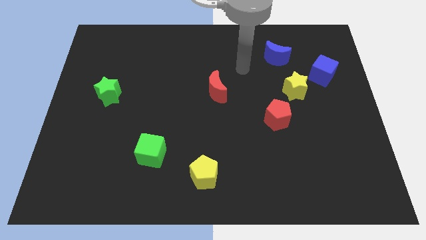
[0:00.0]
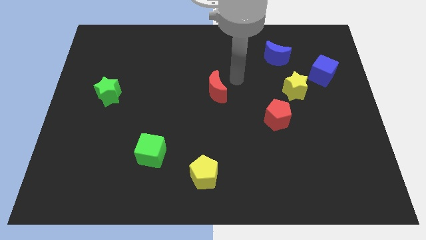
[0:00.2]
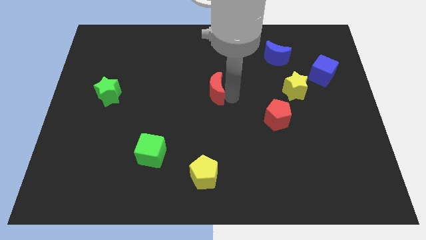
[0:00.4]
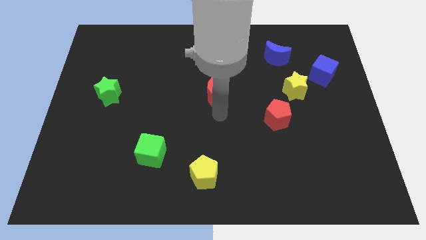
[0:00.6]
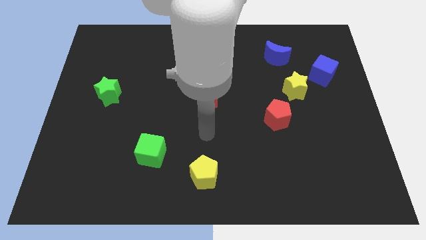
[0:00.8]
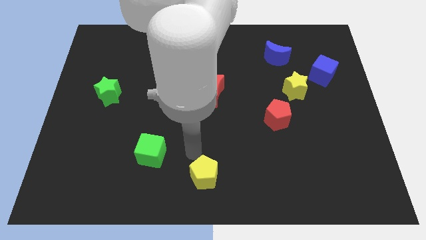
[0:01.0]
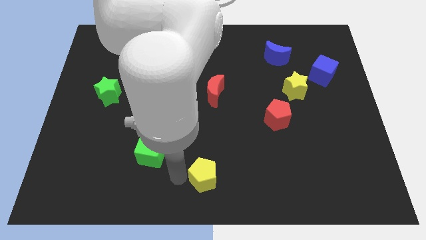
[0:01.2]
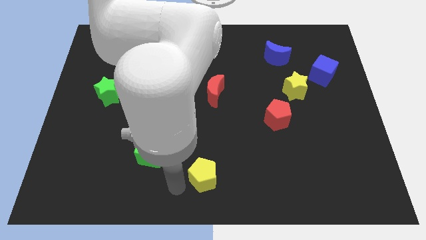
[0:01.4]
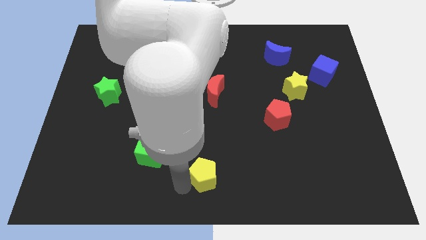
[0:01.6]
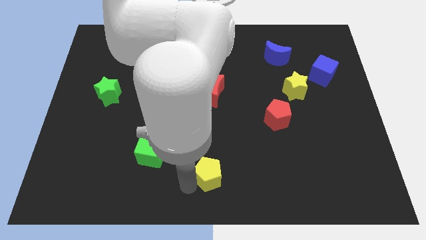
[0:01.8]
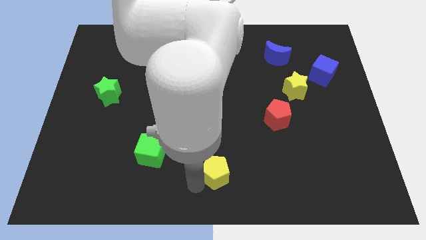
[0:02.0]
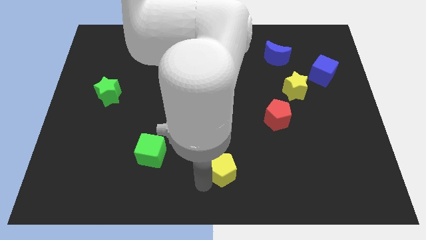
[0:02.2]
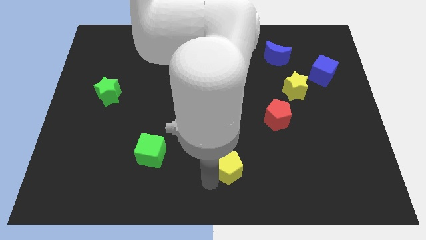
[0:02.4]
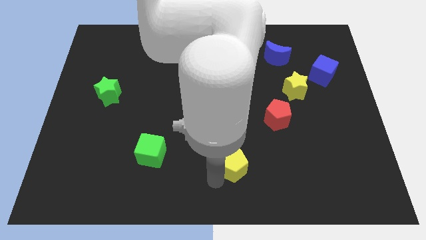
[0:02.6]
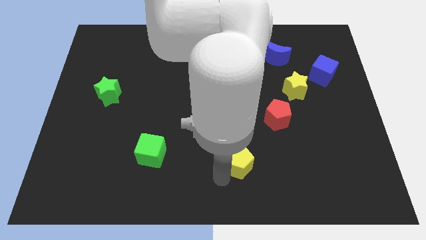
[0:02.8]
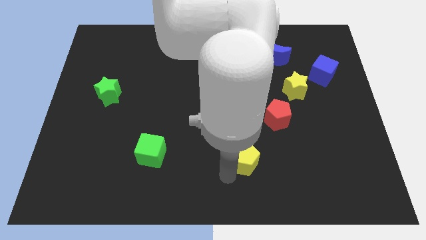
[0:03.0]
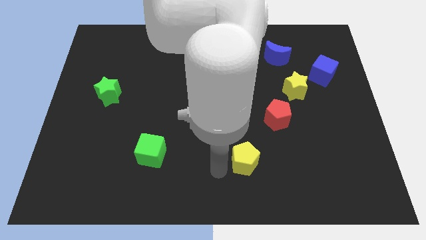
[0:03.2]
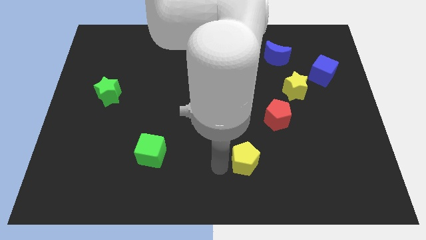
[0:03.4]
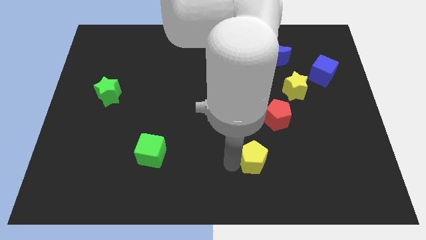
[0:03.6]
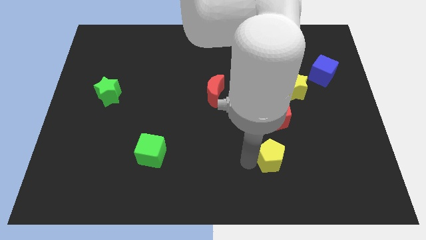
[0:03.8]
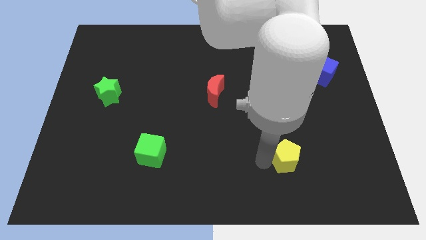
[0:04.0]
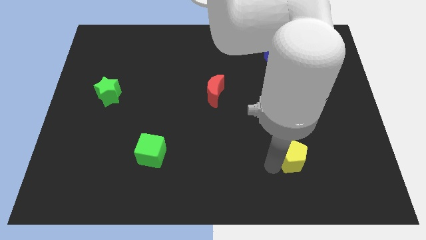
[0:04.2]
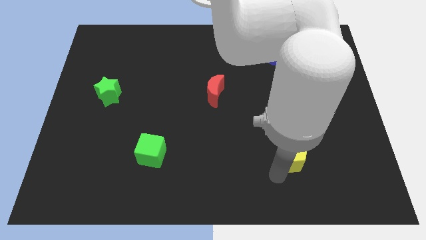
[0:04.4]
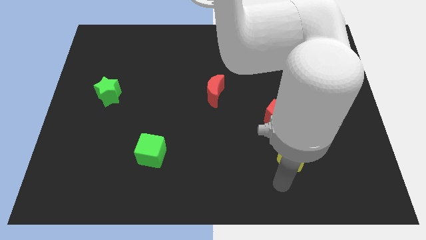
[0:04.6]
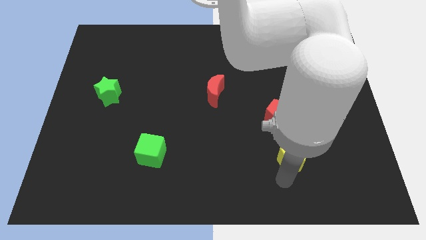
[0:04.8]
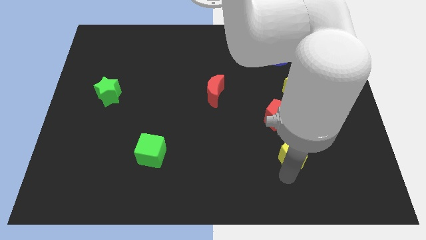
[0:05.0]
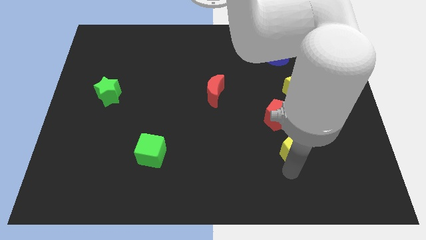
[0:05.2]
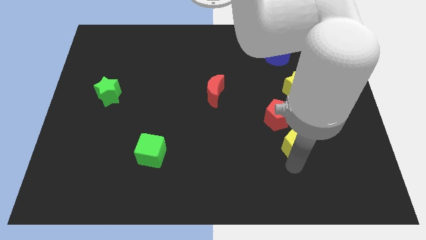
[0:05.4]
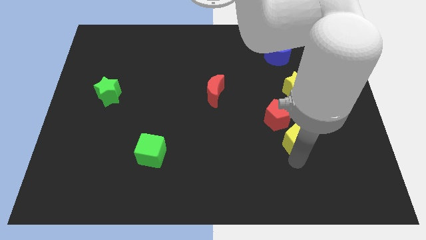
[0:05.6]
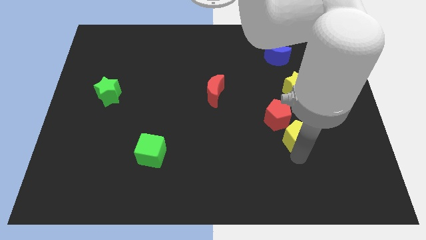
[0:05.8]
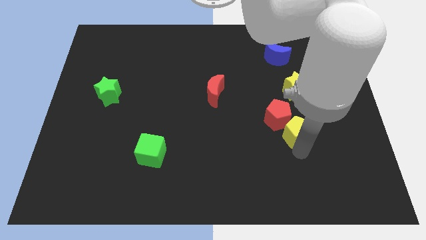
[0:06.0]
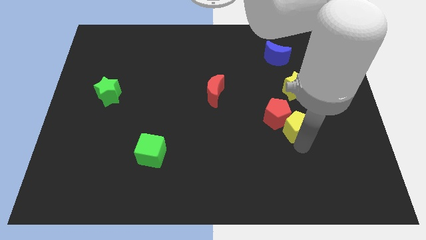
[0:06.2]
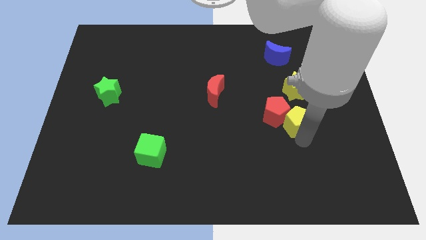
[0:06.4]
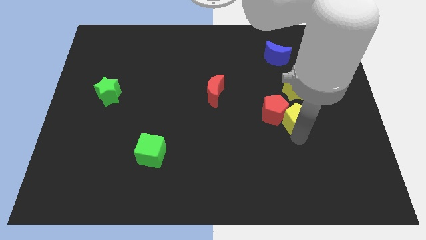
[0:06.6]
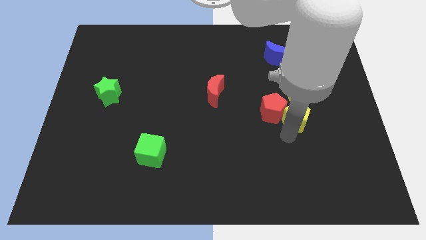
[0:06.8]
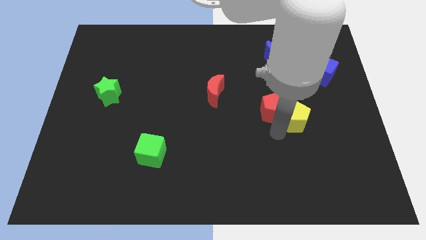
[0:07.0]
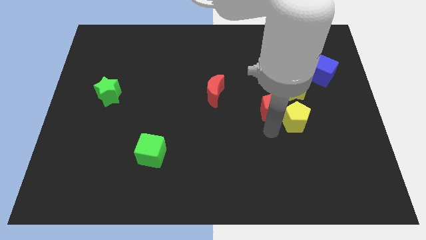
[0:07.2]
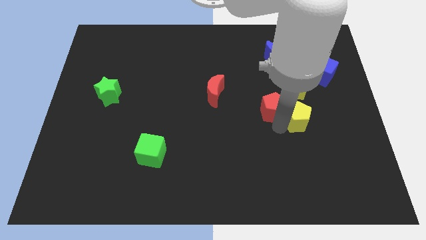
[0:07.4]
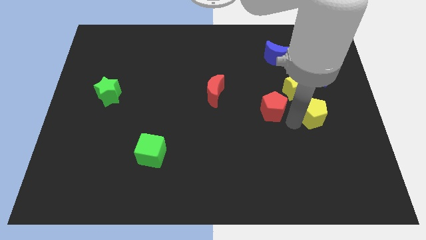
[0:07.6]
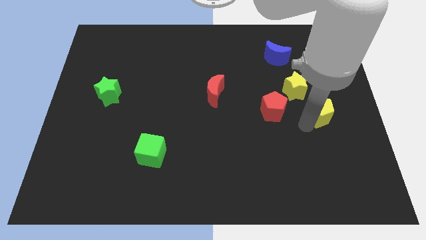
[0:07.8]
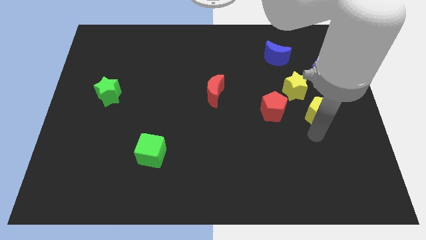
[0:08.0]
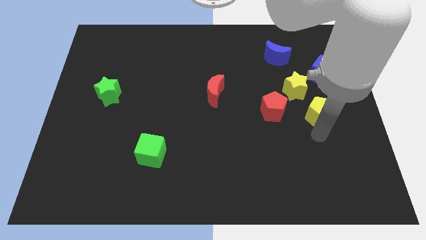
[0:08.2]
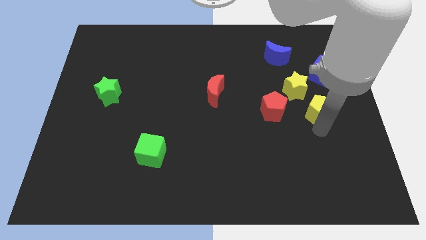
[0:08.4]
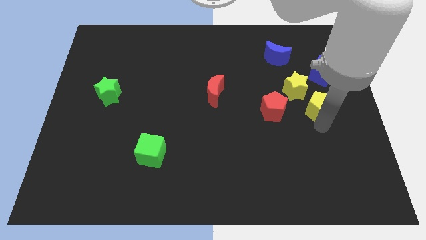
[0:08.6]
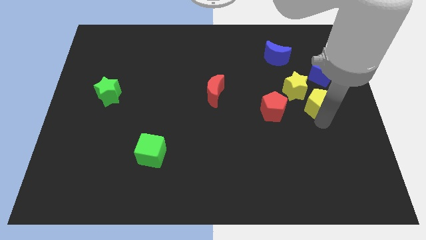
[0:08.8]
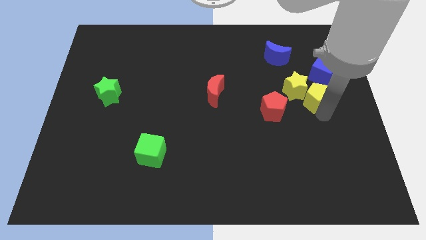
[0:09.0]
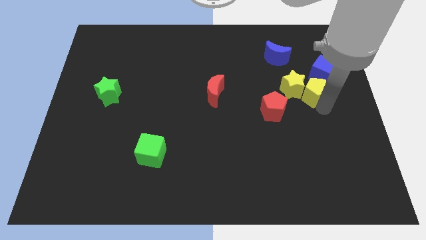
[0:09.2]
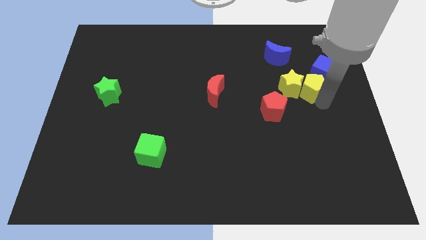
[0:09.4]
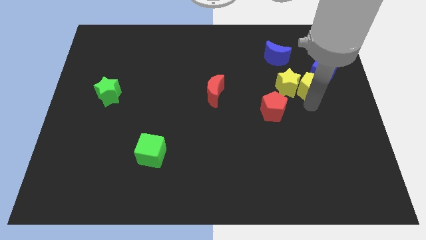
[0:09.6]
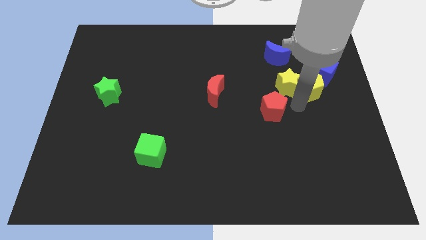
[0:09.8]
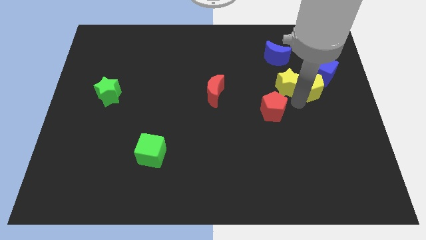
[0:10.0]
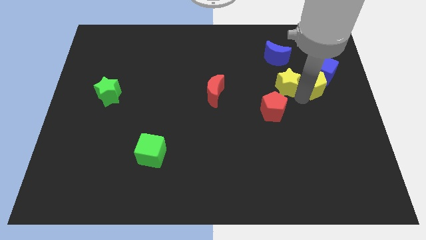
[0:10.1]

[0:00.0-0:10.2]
move the yellow pentagon towards the blue cube

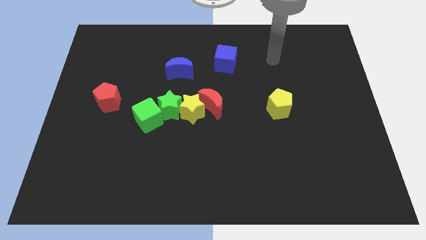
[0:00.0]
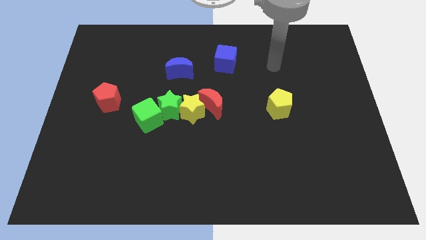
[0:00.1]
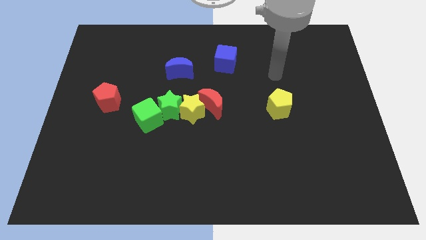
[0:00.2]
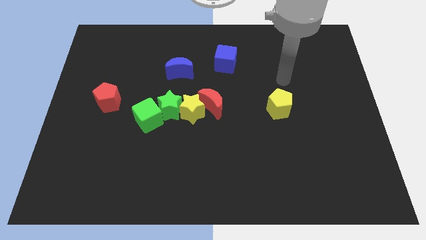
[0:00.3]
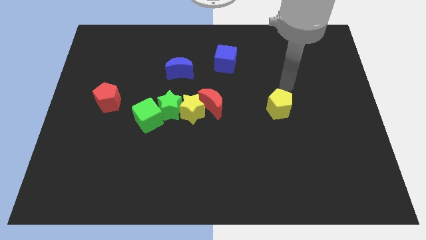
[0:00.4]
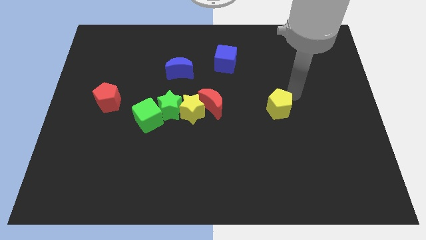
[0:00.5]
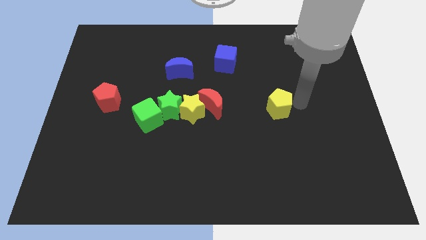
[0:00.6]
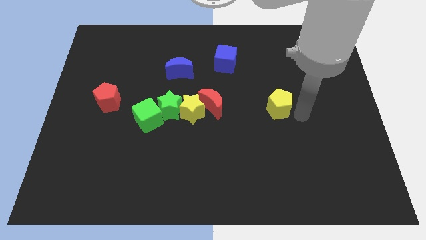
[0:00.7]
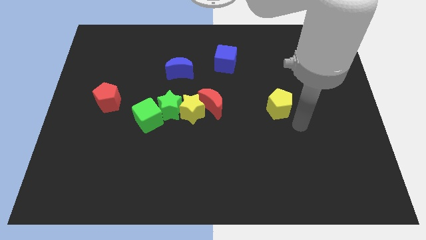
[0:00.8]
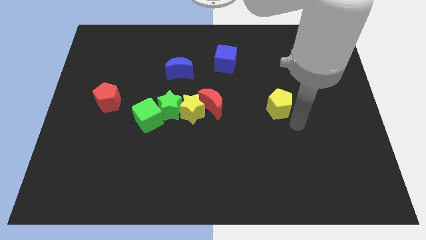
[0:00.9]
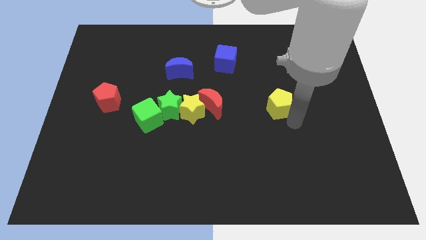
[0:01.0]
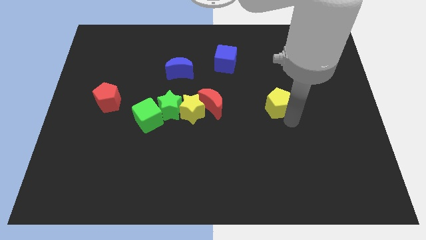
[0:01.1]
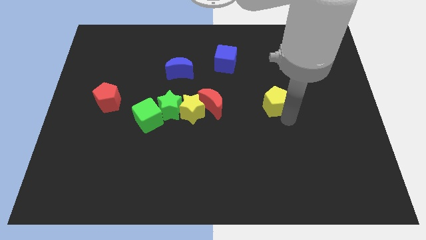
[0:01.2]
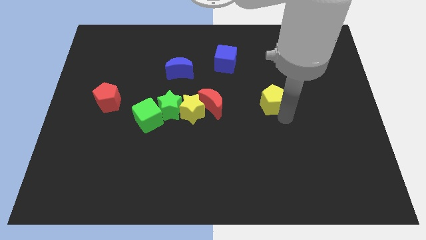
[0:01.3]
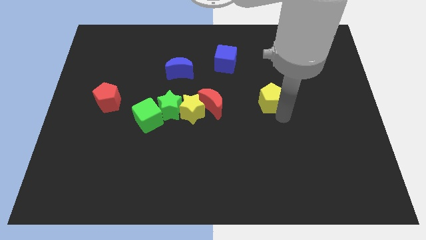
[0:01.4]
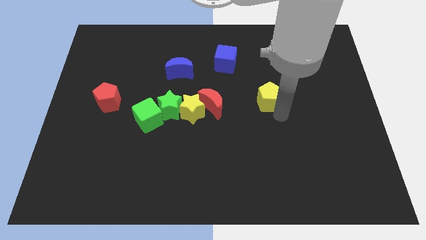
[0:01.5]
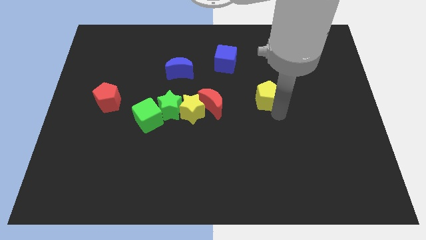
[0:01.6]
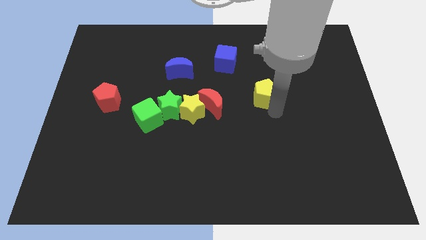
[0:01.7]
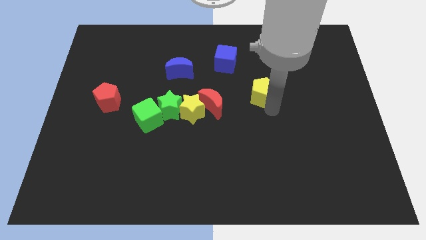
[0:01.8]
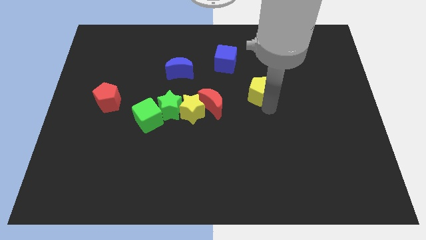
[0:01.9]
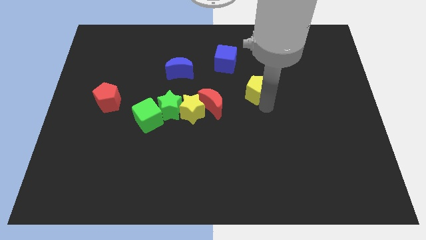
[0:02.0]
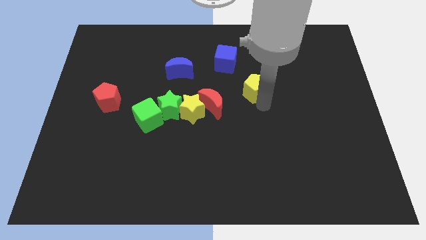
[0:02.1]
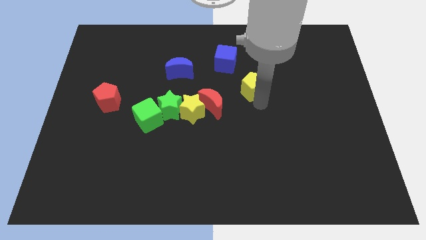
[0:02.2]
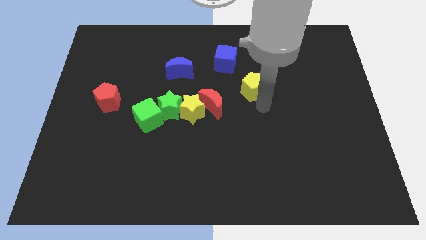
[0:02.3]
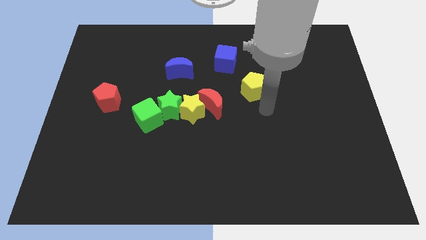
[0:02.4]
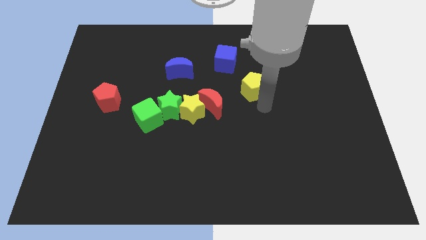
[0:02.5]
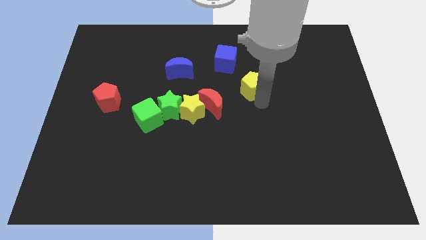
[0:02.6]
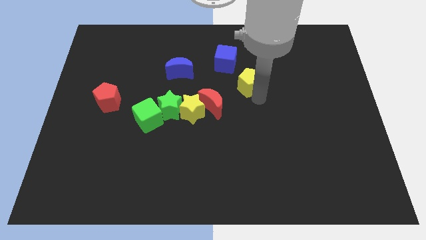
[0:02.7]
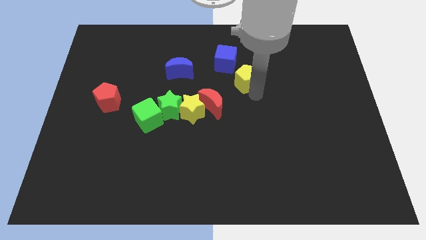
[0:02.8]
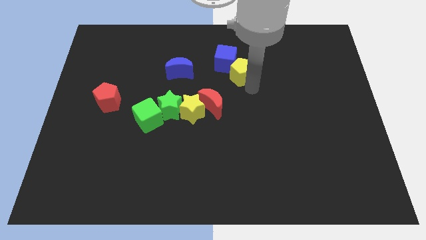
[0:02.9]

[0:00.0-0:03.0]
push the yellow pentagon to the blue cube
